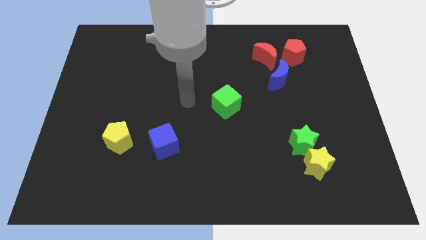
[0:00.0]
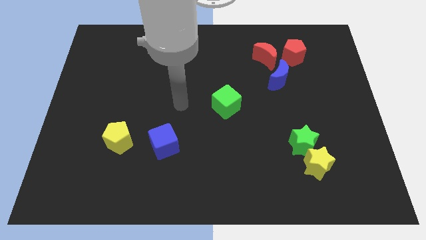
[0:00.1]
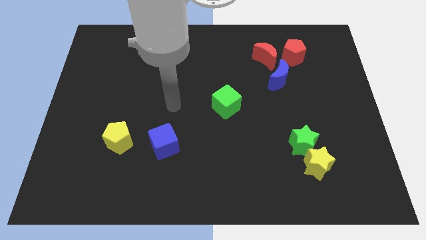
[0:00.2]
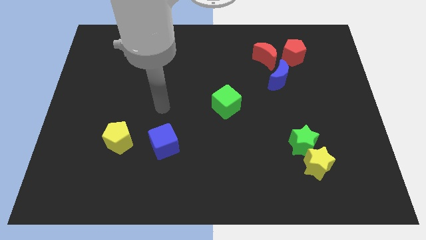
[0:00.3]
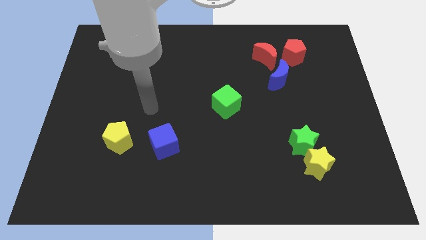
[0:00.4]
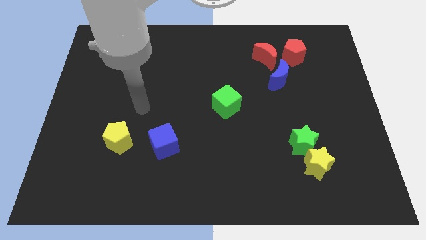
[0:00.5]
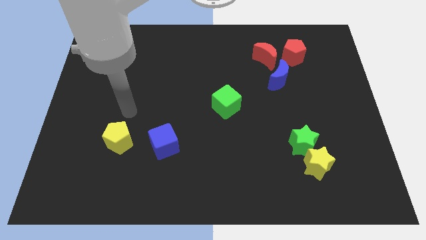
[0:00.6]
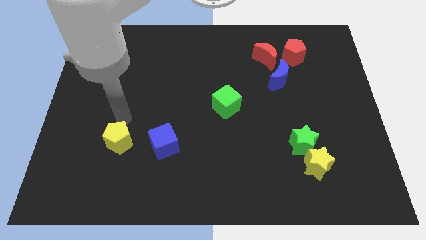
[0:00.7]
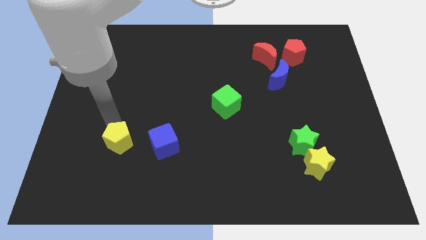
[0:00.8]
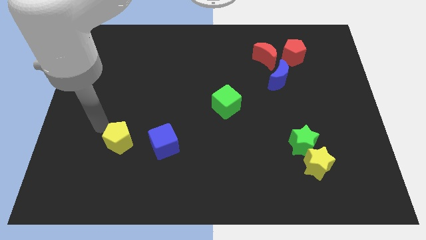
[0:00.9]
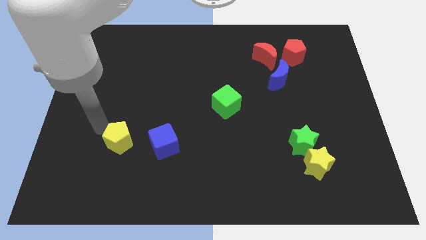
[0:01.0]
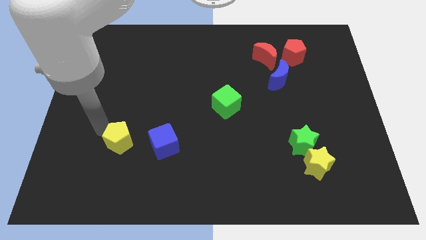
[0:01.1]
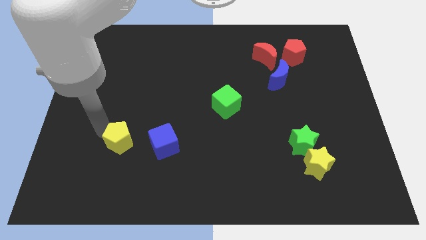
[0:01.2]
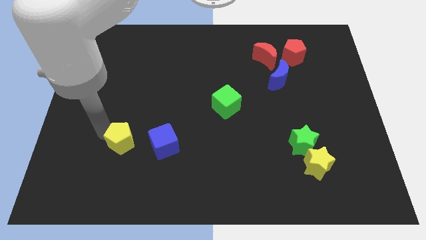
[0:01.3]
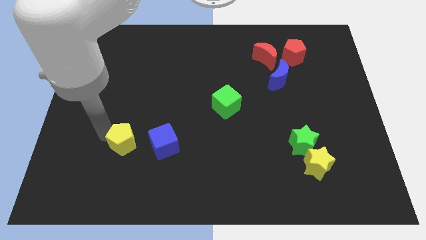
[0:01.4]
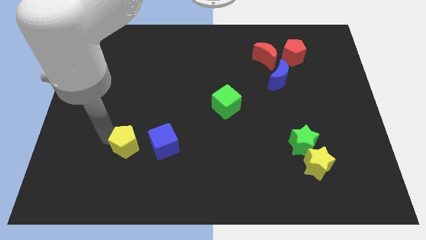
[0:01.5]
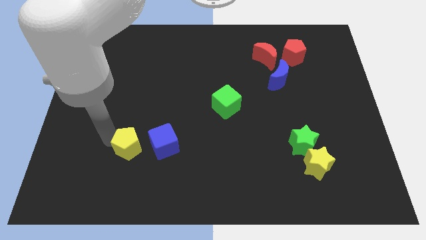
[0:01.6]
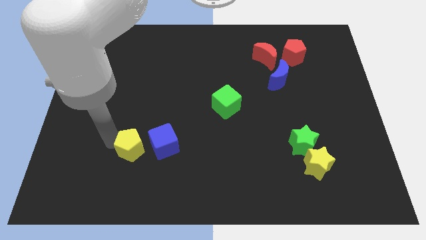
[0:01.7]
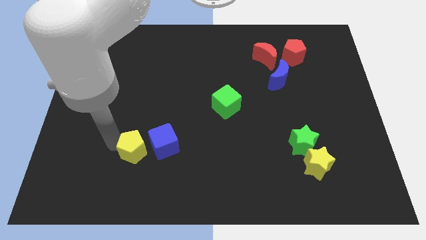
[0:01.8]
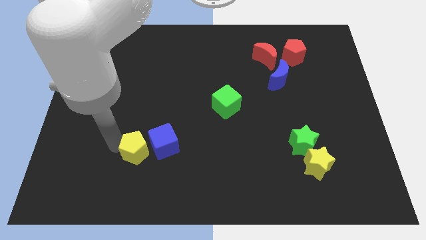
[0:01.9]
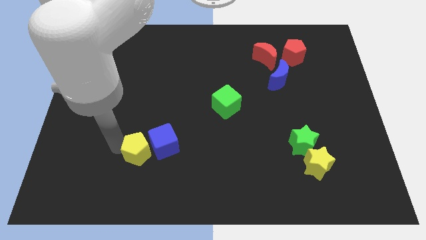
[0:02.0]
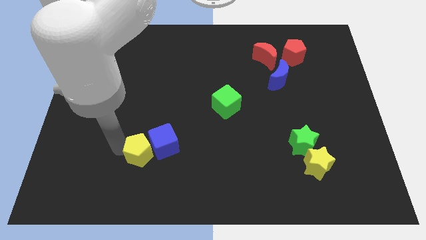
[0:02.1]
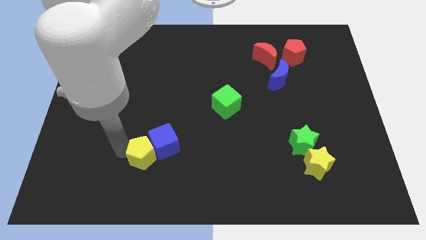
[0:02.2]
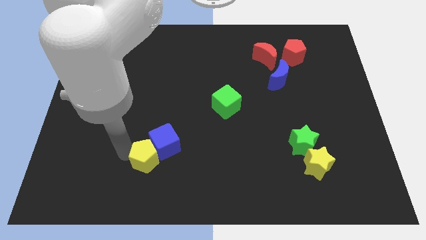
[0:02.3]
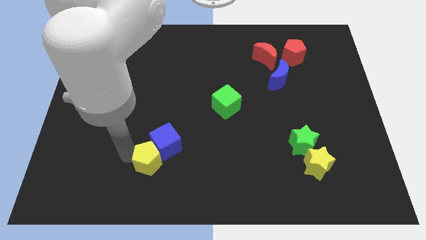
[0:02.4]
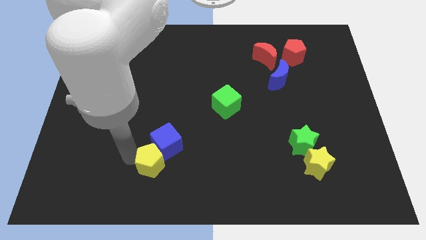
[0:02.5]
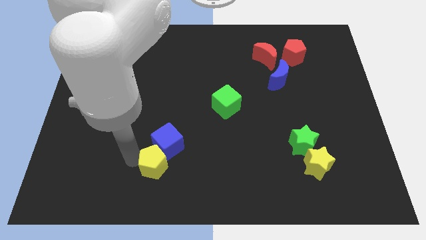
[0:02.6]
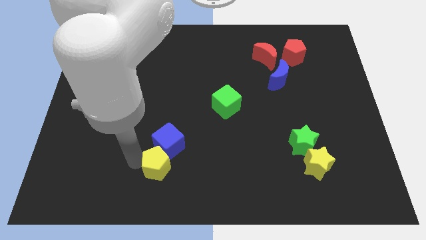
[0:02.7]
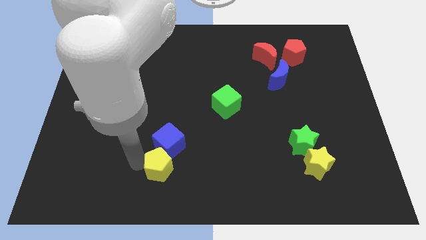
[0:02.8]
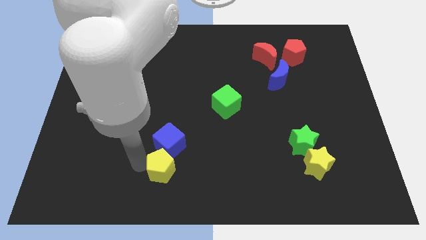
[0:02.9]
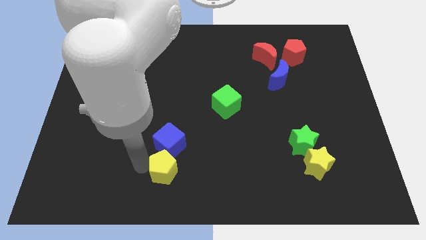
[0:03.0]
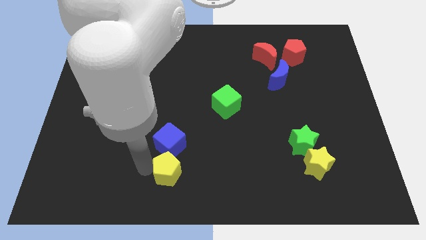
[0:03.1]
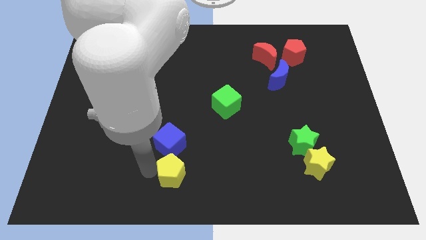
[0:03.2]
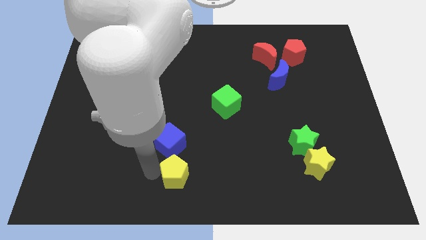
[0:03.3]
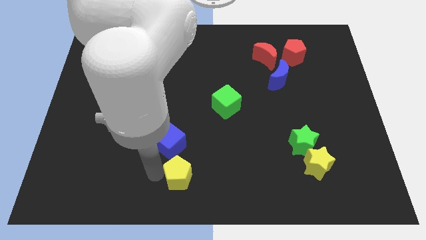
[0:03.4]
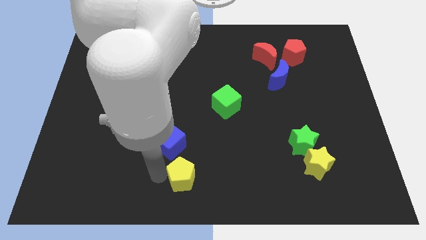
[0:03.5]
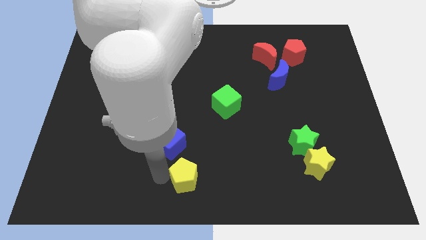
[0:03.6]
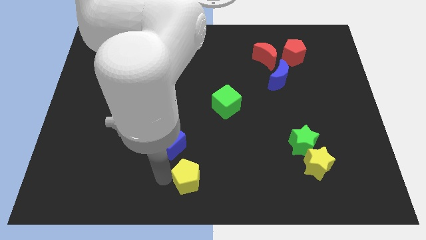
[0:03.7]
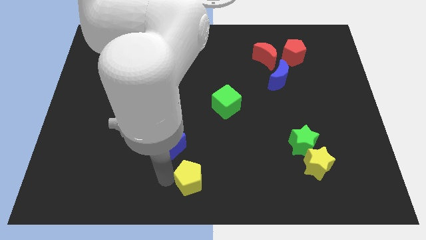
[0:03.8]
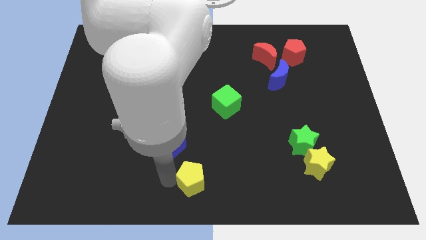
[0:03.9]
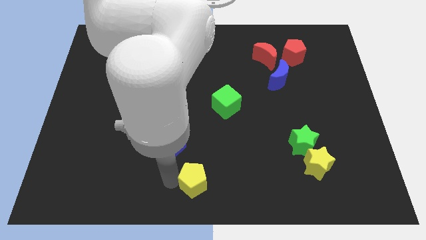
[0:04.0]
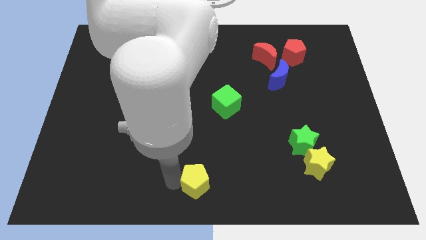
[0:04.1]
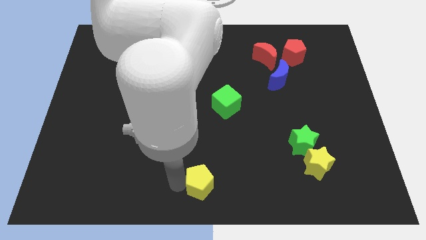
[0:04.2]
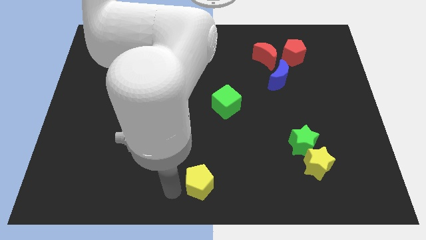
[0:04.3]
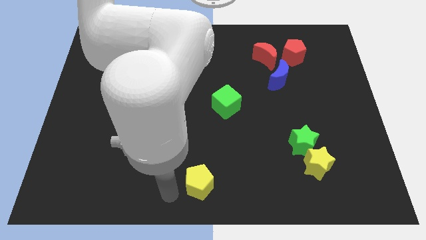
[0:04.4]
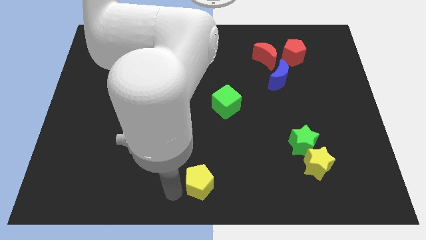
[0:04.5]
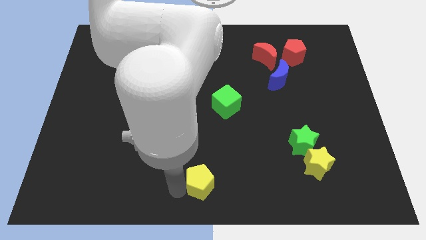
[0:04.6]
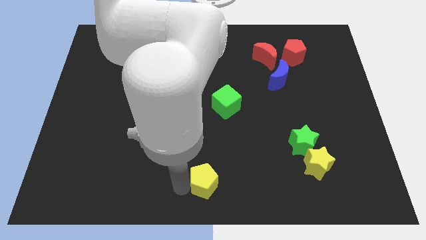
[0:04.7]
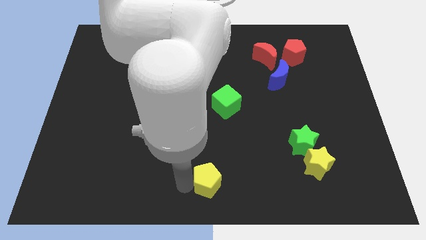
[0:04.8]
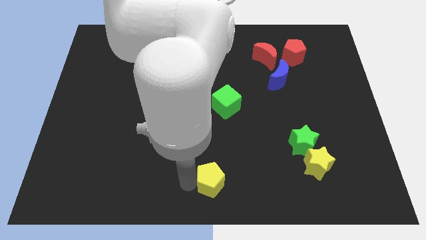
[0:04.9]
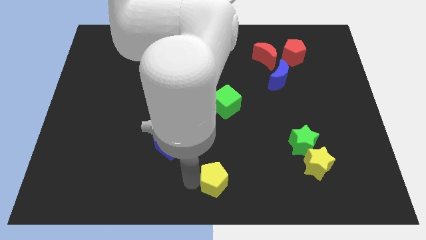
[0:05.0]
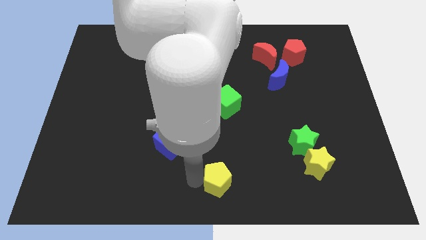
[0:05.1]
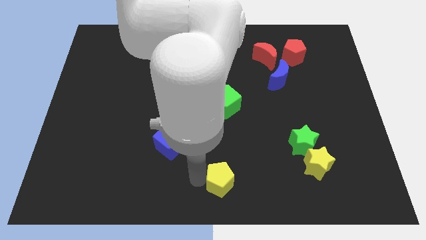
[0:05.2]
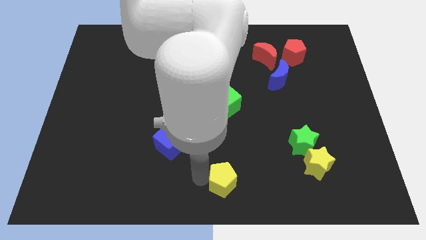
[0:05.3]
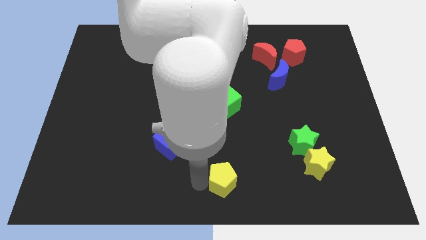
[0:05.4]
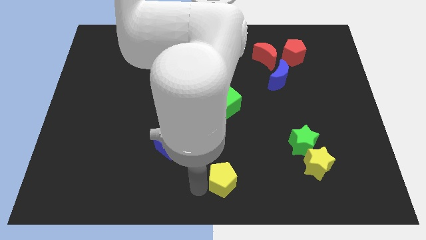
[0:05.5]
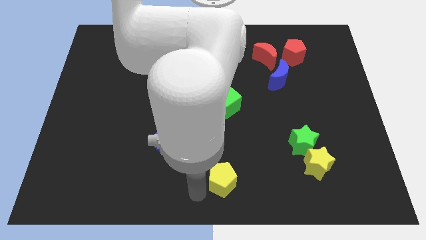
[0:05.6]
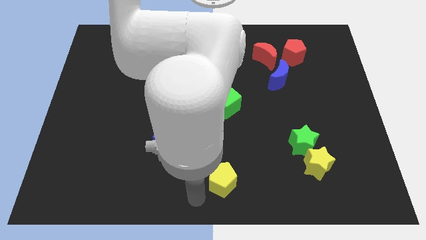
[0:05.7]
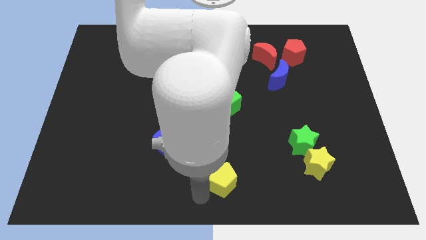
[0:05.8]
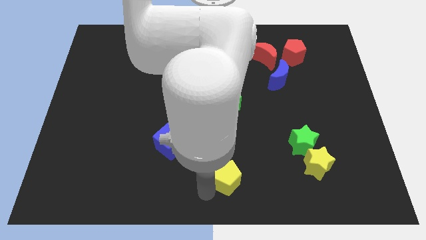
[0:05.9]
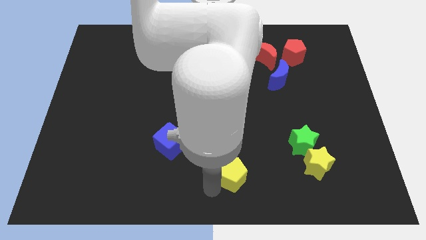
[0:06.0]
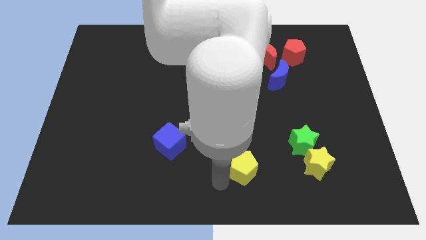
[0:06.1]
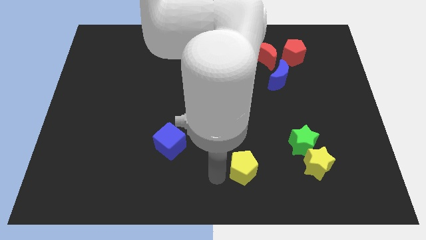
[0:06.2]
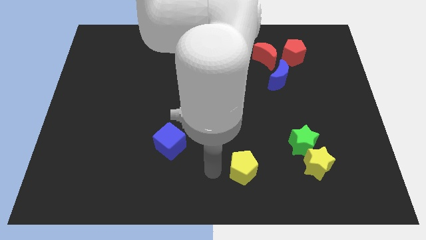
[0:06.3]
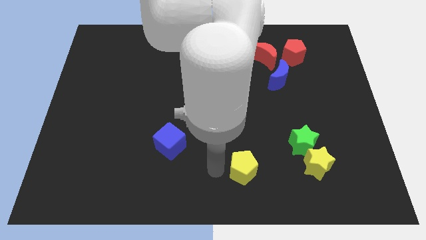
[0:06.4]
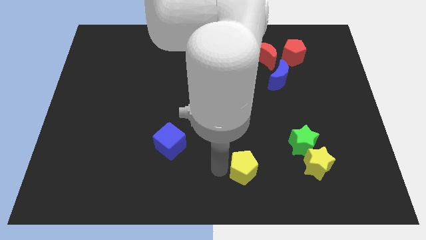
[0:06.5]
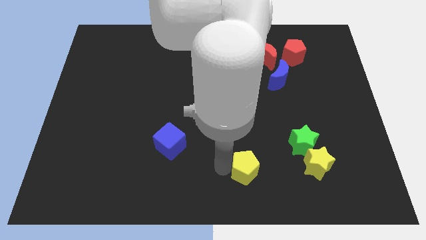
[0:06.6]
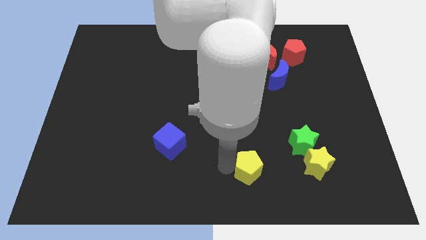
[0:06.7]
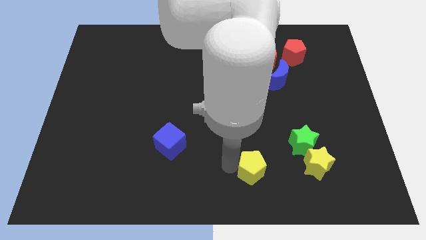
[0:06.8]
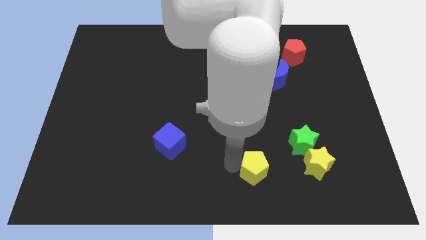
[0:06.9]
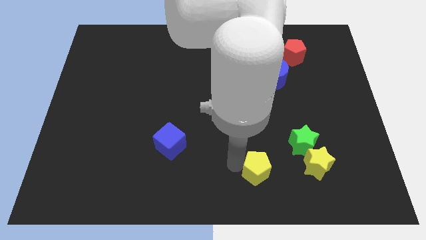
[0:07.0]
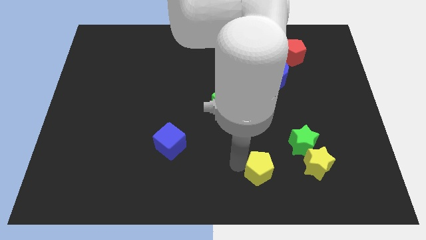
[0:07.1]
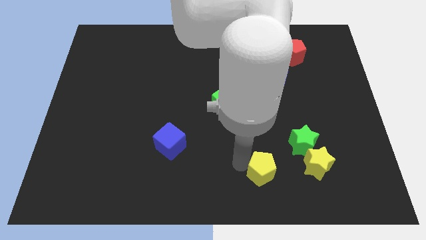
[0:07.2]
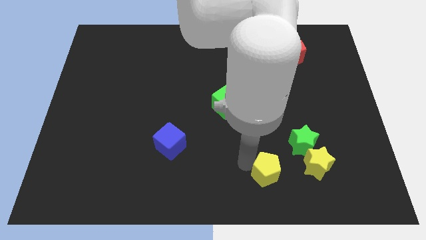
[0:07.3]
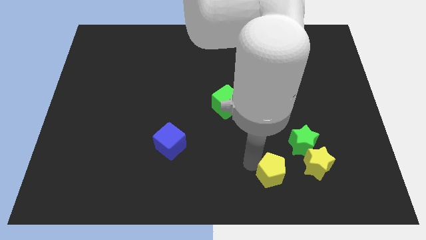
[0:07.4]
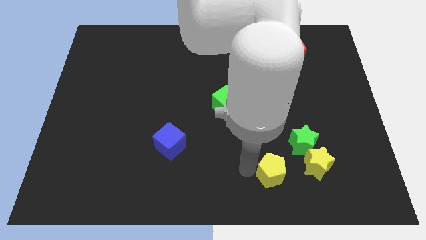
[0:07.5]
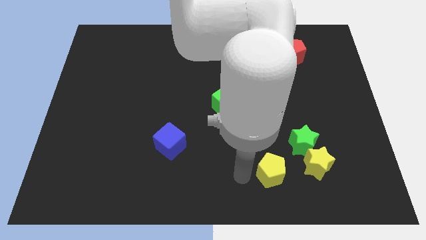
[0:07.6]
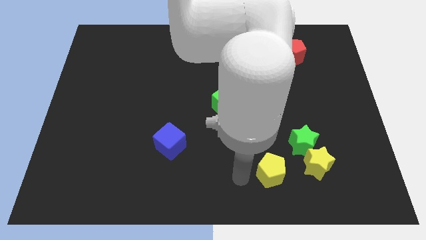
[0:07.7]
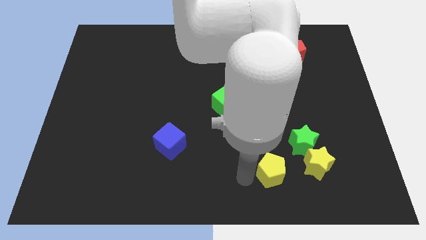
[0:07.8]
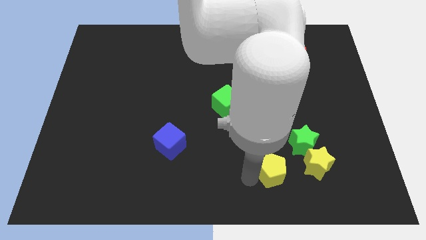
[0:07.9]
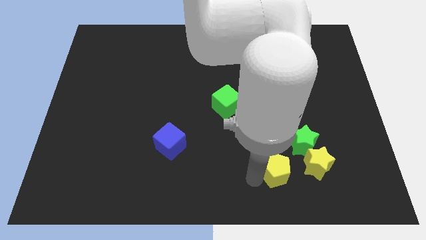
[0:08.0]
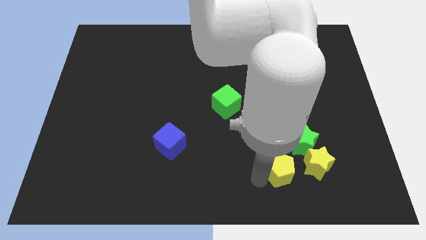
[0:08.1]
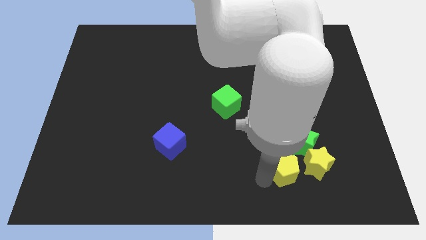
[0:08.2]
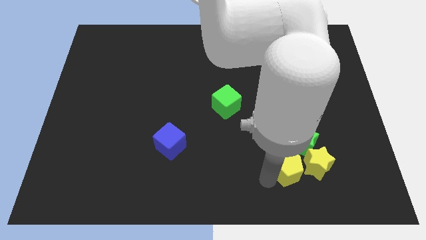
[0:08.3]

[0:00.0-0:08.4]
put the yellow pentagon next to the yellow star
